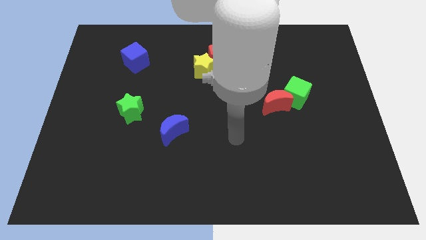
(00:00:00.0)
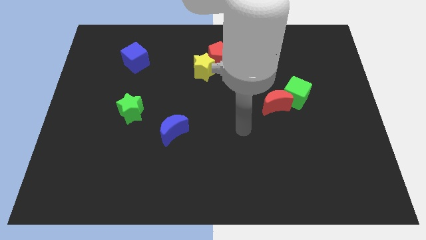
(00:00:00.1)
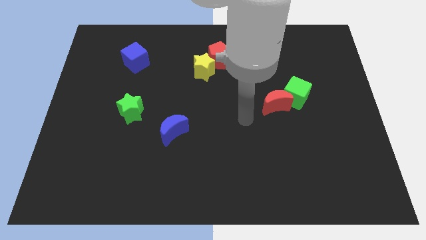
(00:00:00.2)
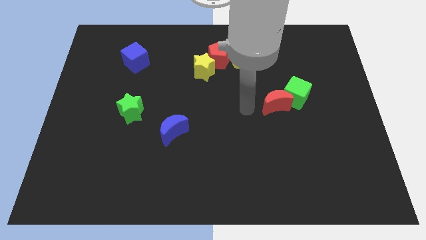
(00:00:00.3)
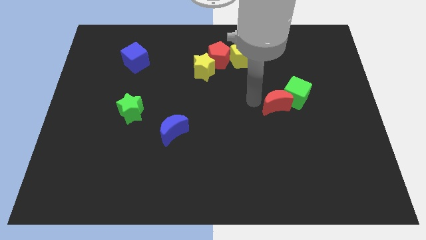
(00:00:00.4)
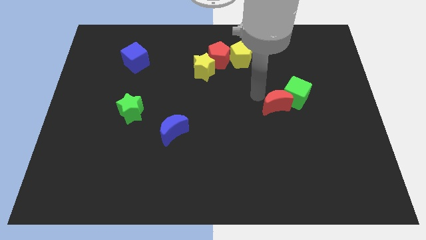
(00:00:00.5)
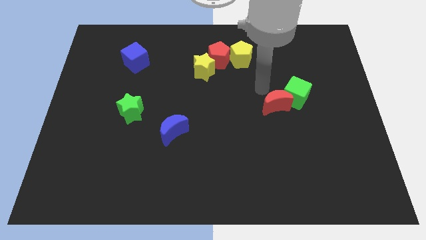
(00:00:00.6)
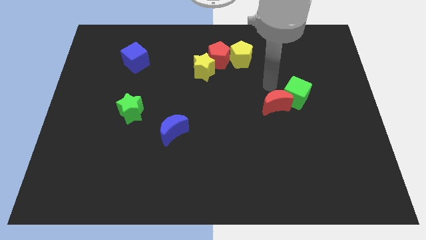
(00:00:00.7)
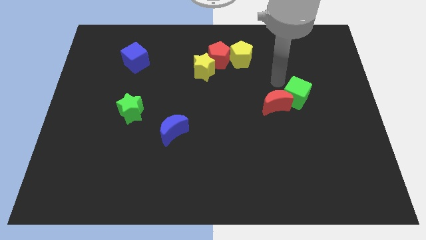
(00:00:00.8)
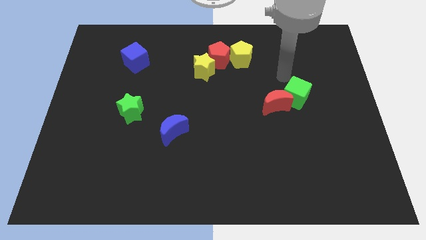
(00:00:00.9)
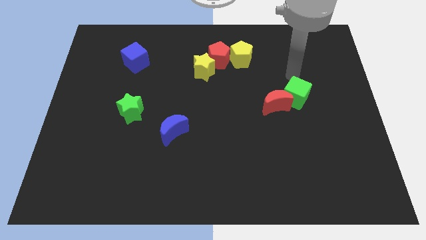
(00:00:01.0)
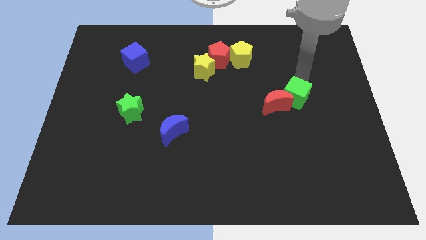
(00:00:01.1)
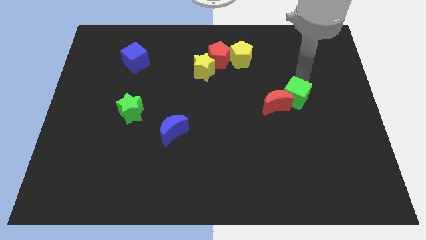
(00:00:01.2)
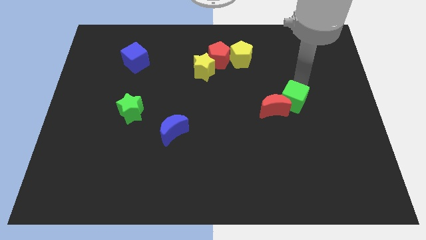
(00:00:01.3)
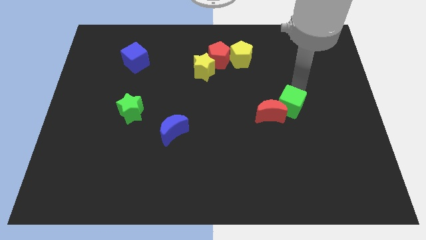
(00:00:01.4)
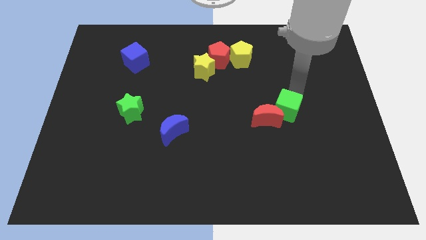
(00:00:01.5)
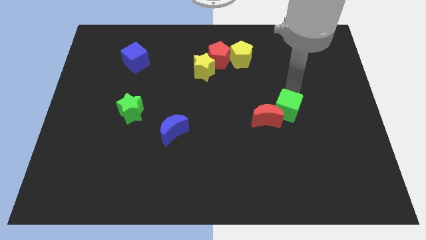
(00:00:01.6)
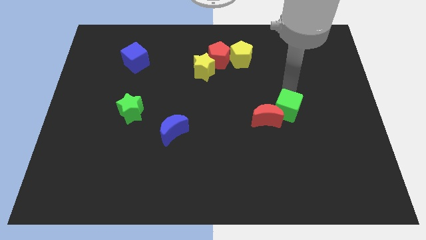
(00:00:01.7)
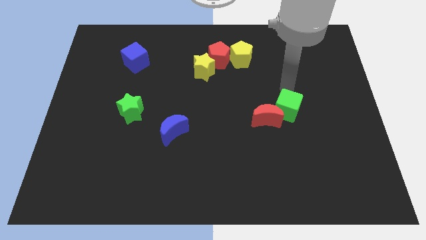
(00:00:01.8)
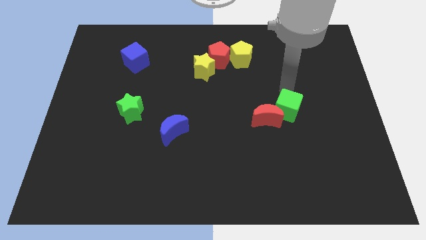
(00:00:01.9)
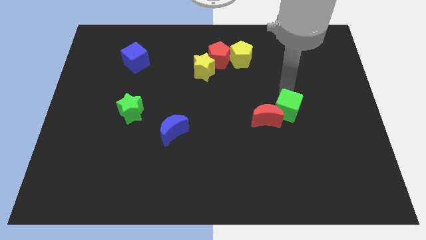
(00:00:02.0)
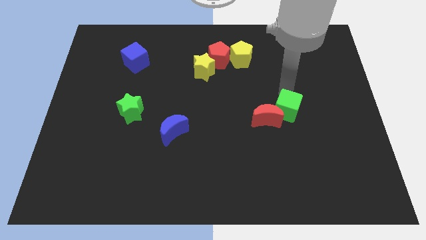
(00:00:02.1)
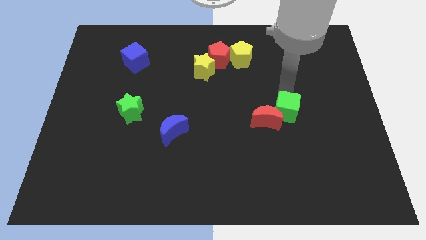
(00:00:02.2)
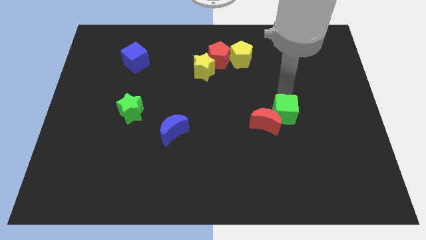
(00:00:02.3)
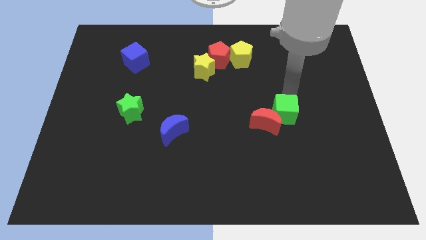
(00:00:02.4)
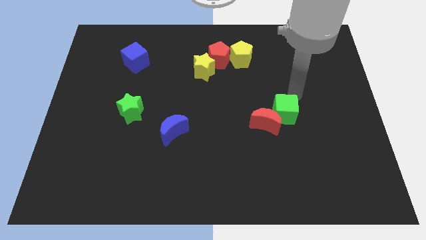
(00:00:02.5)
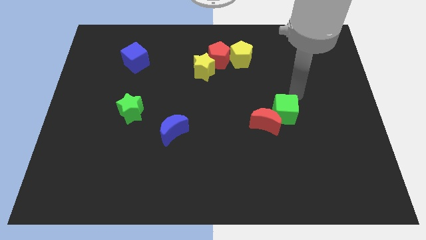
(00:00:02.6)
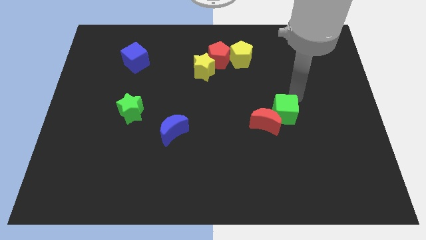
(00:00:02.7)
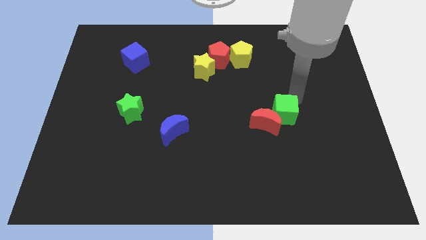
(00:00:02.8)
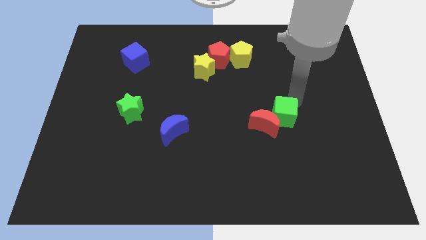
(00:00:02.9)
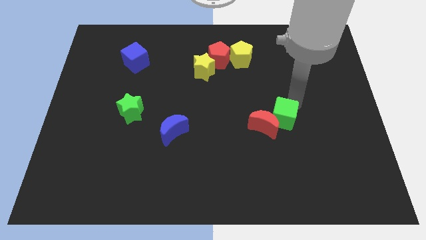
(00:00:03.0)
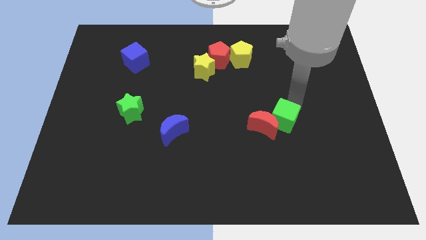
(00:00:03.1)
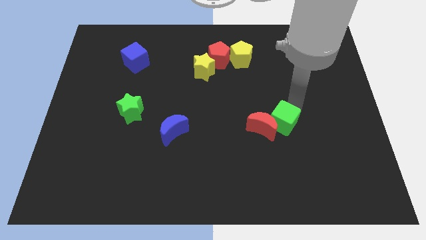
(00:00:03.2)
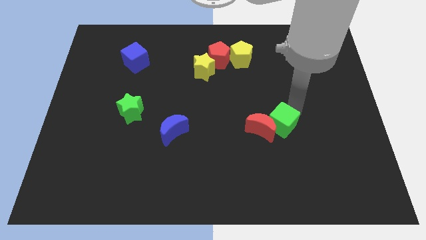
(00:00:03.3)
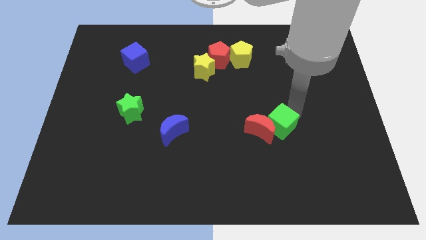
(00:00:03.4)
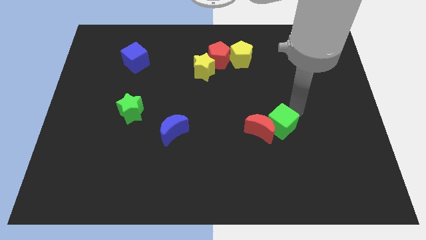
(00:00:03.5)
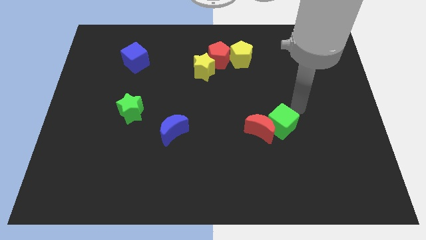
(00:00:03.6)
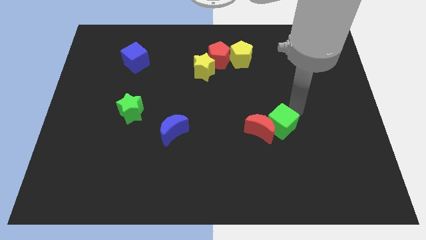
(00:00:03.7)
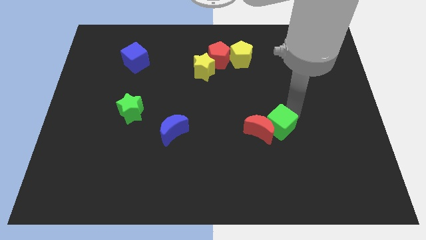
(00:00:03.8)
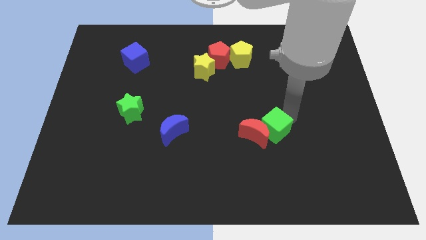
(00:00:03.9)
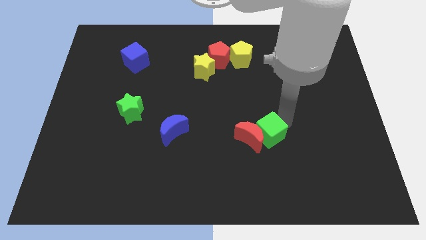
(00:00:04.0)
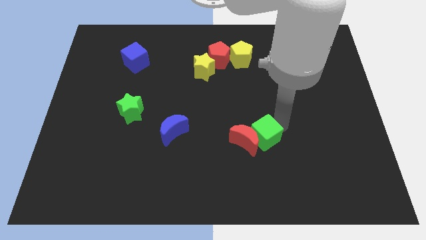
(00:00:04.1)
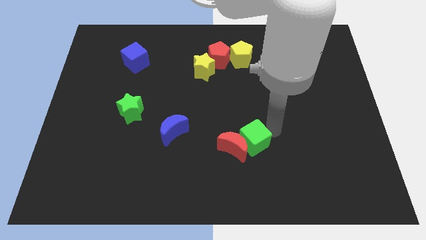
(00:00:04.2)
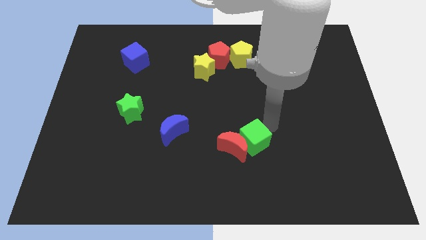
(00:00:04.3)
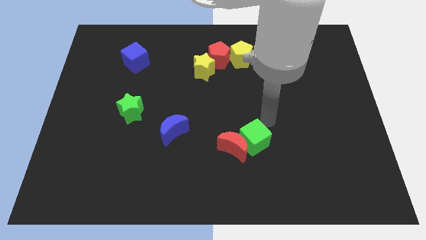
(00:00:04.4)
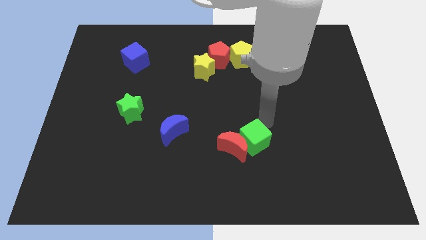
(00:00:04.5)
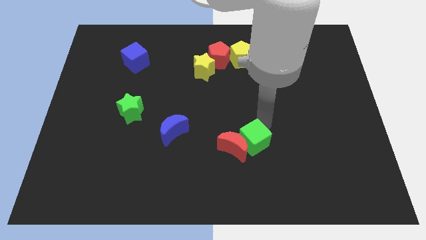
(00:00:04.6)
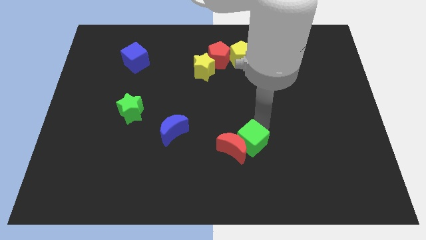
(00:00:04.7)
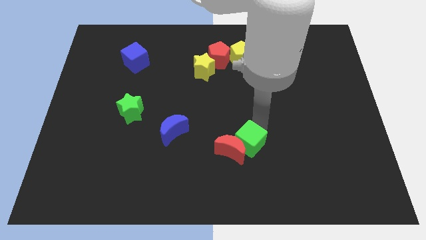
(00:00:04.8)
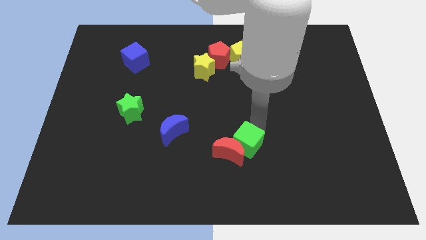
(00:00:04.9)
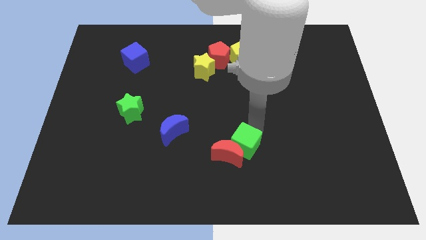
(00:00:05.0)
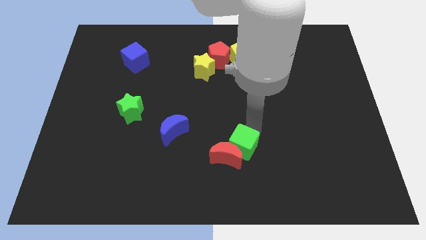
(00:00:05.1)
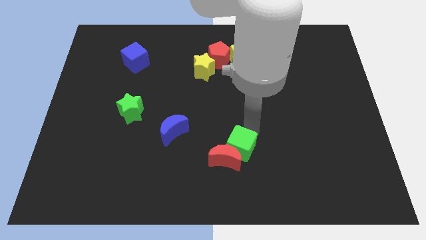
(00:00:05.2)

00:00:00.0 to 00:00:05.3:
move the green cube downwards and then left

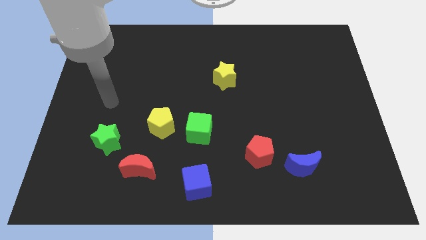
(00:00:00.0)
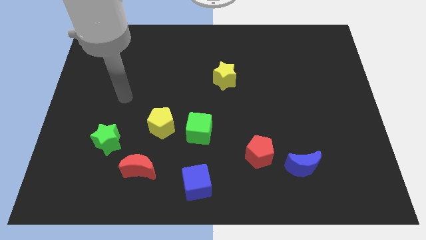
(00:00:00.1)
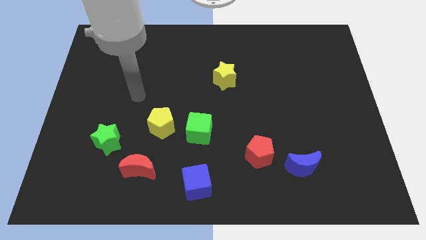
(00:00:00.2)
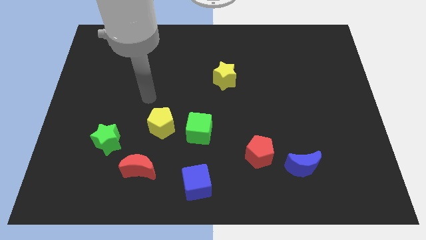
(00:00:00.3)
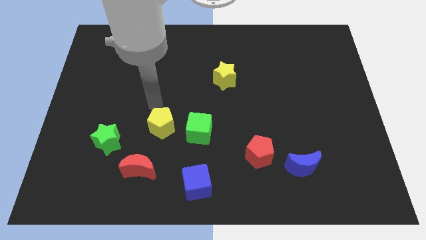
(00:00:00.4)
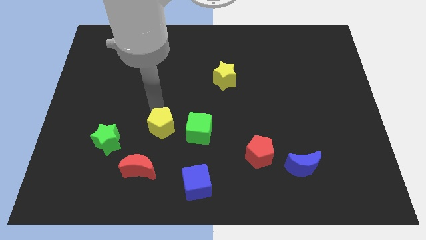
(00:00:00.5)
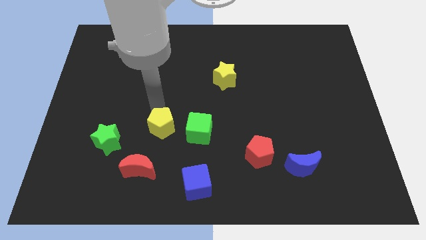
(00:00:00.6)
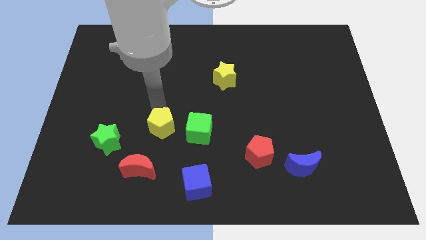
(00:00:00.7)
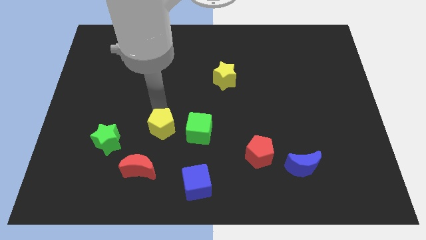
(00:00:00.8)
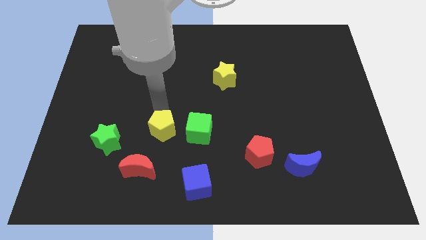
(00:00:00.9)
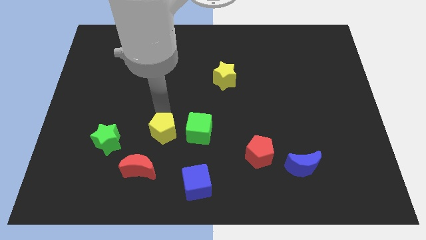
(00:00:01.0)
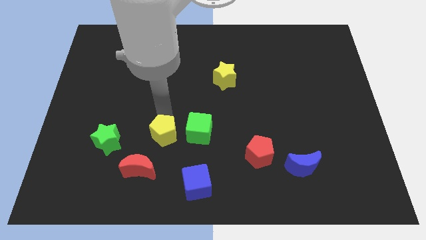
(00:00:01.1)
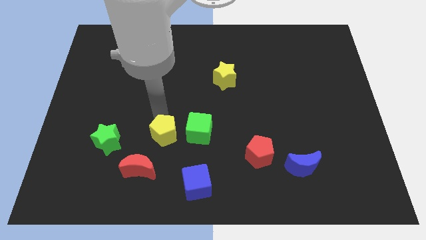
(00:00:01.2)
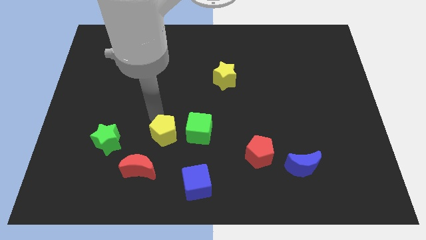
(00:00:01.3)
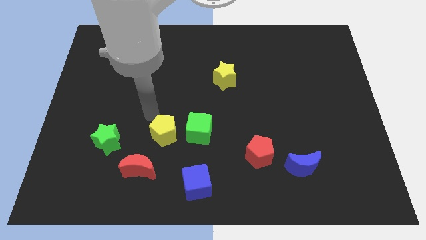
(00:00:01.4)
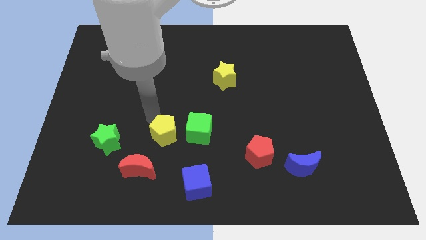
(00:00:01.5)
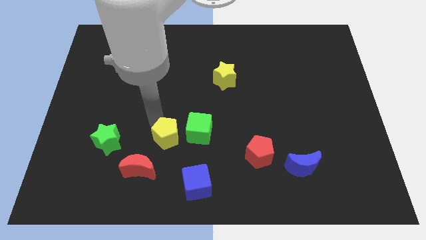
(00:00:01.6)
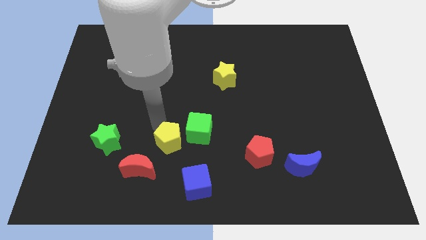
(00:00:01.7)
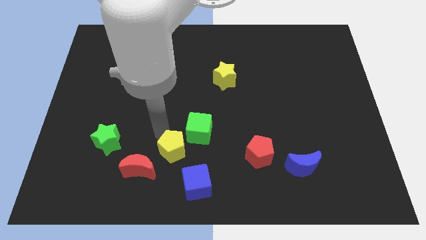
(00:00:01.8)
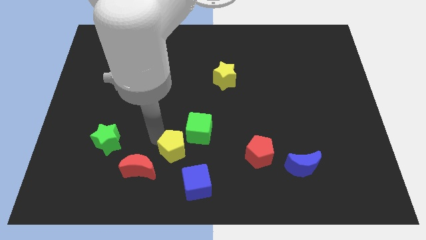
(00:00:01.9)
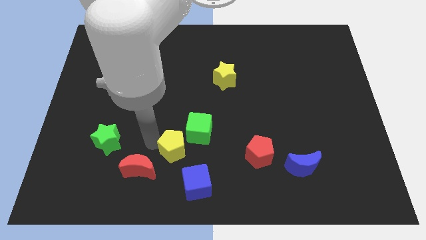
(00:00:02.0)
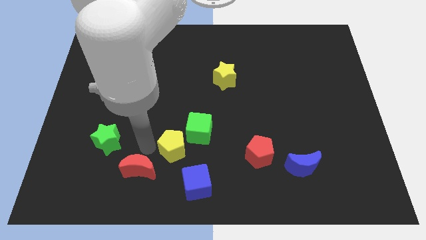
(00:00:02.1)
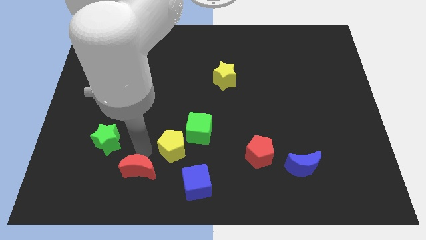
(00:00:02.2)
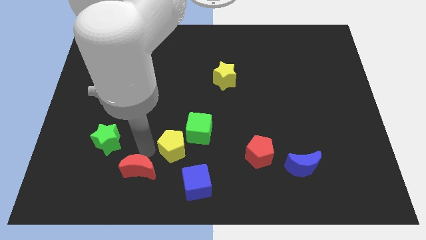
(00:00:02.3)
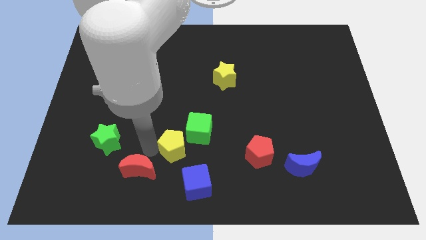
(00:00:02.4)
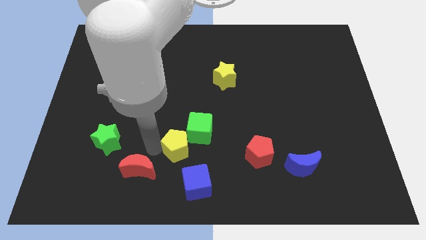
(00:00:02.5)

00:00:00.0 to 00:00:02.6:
push the yellow pentagon down and then to the right somewhat

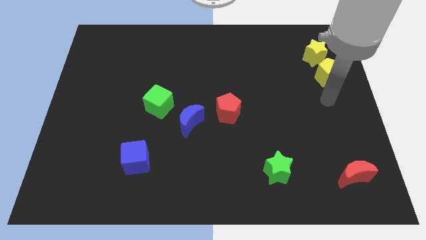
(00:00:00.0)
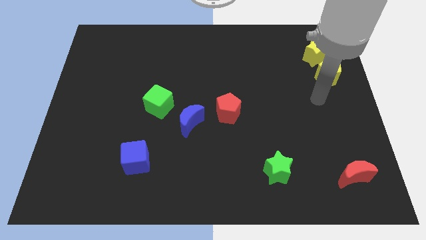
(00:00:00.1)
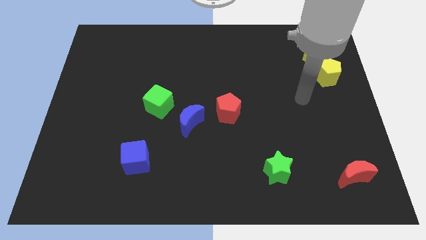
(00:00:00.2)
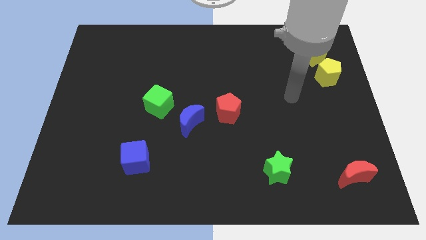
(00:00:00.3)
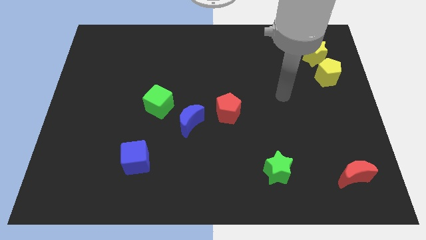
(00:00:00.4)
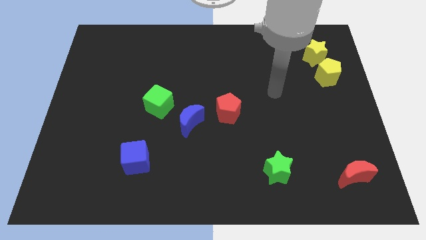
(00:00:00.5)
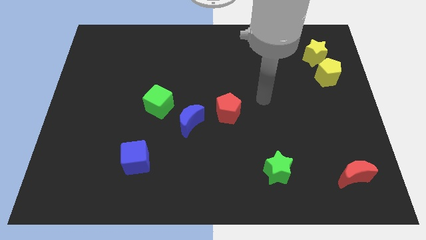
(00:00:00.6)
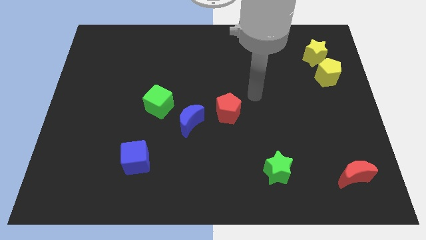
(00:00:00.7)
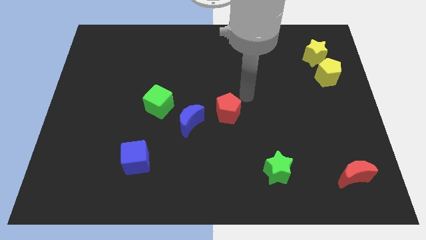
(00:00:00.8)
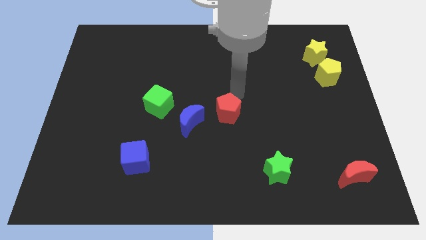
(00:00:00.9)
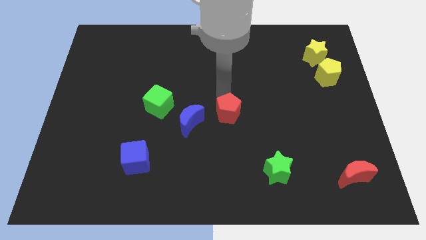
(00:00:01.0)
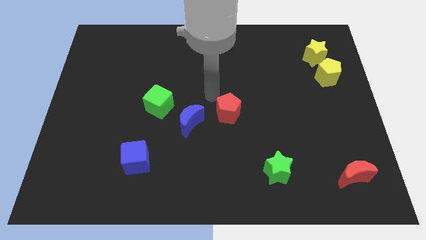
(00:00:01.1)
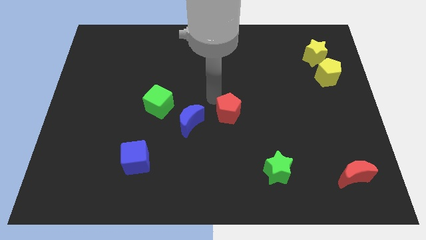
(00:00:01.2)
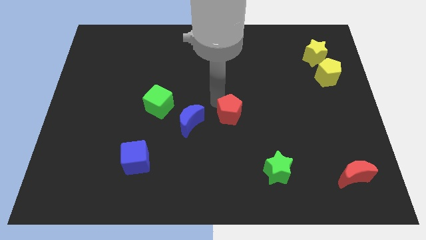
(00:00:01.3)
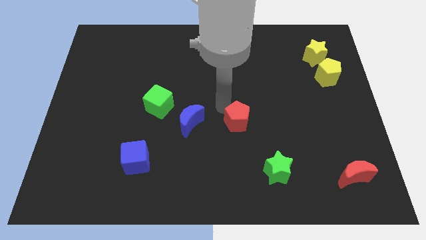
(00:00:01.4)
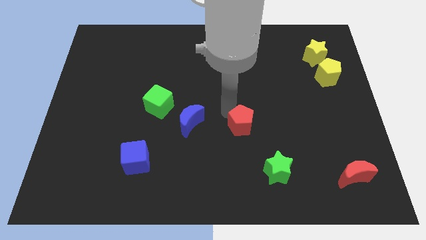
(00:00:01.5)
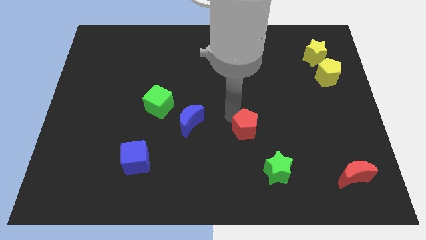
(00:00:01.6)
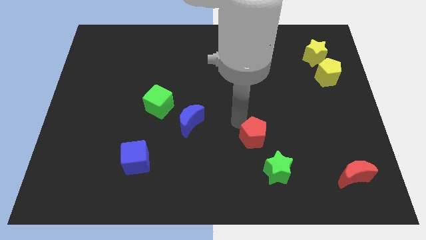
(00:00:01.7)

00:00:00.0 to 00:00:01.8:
slide the red pentagon a little down and right
